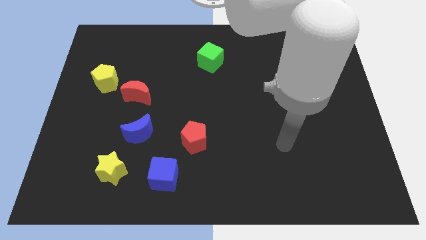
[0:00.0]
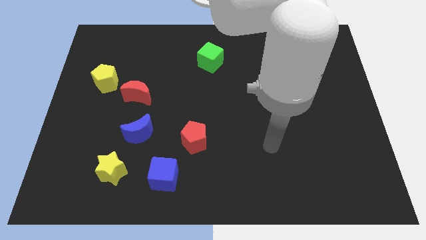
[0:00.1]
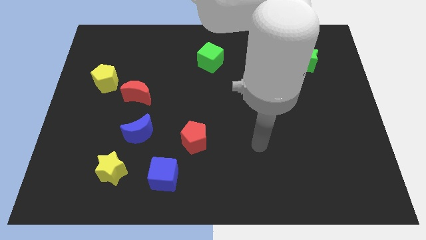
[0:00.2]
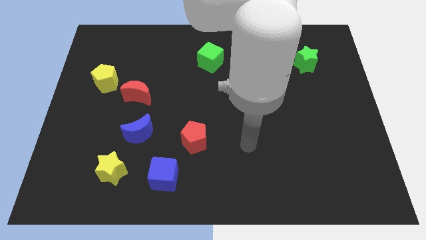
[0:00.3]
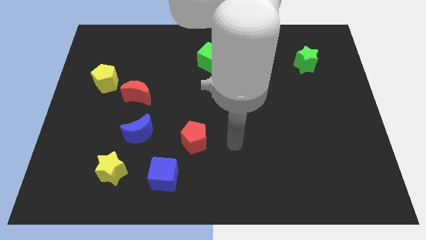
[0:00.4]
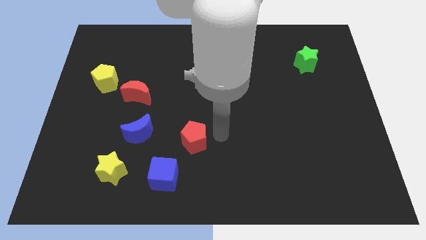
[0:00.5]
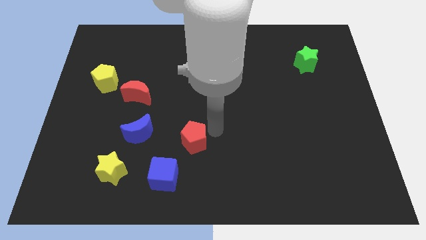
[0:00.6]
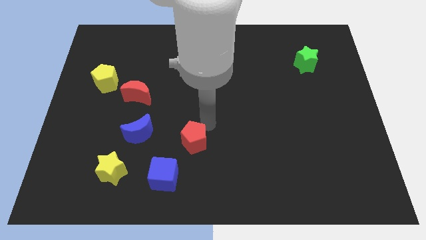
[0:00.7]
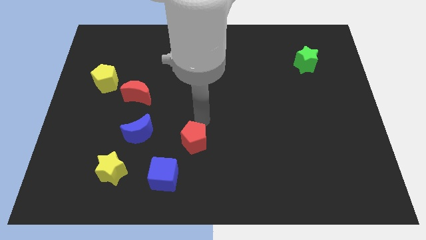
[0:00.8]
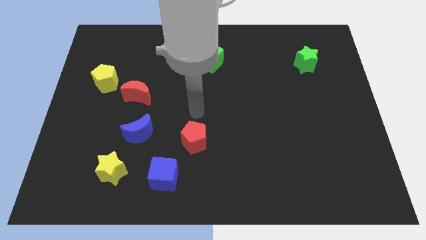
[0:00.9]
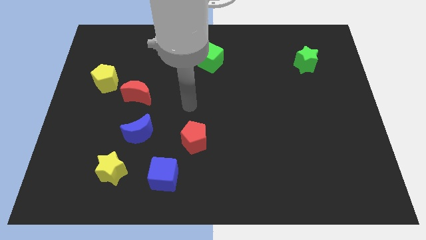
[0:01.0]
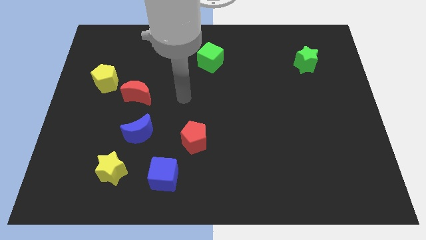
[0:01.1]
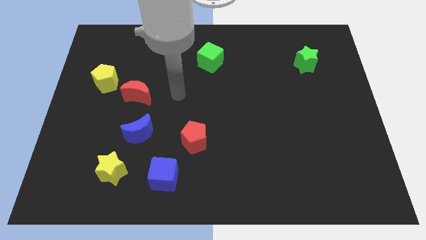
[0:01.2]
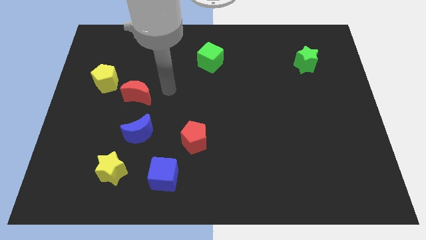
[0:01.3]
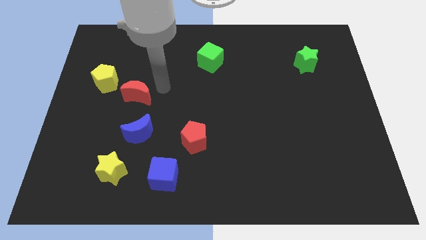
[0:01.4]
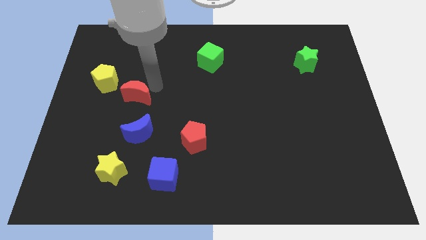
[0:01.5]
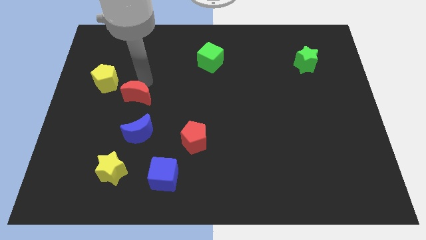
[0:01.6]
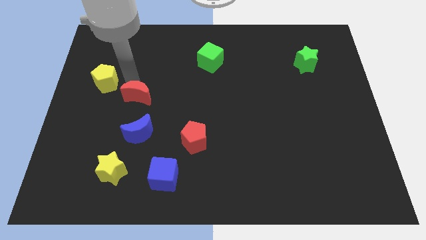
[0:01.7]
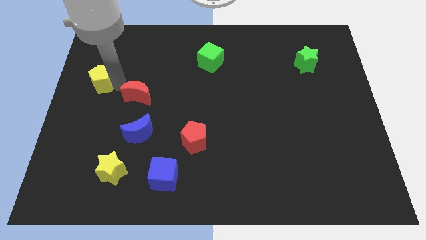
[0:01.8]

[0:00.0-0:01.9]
separate the red moon from the yellow pentagon

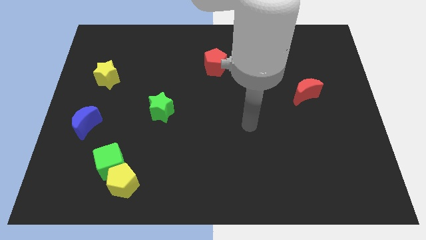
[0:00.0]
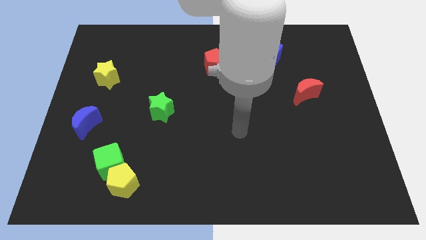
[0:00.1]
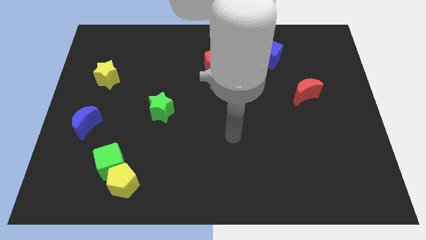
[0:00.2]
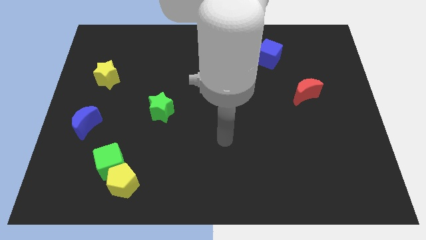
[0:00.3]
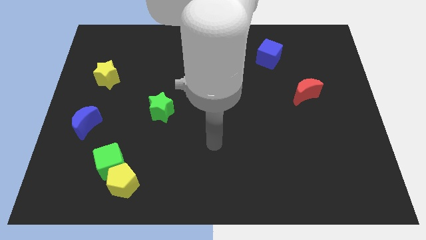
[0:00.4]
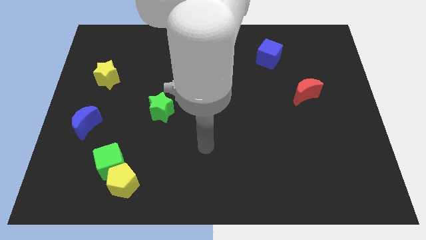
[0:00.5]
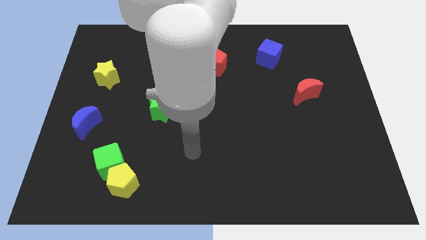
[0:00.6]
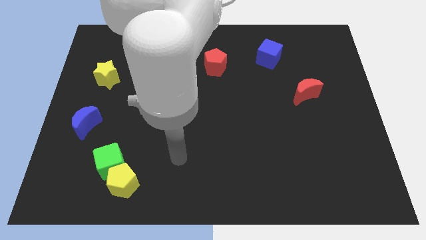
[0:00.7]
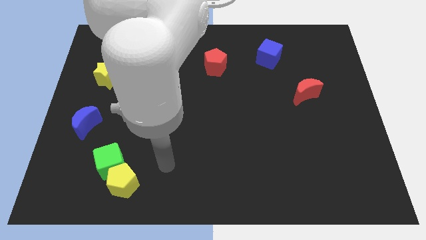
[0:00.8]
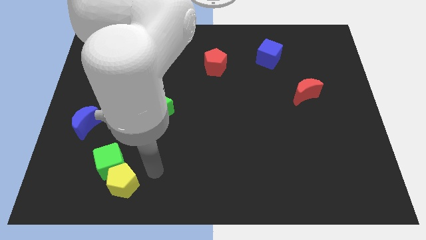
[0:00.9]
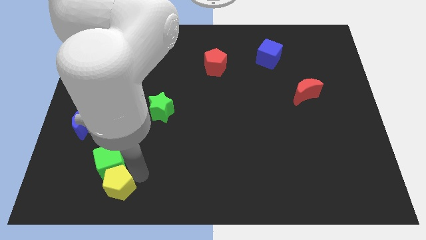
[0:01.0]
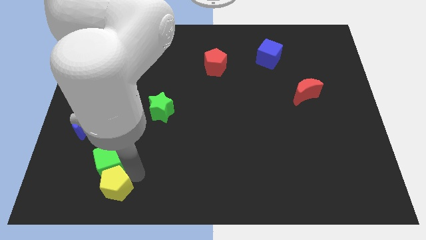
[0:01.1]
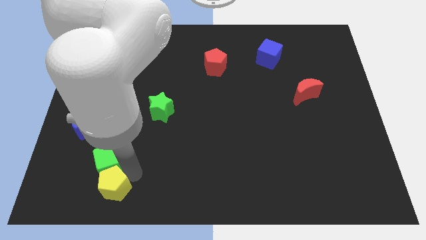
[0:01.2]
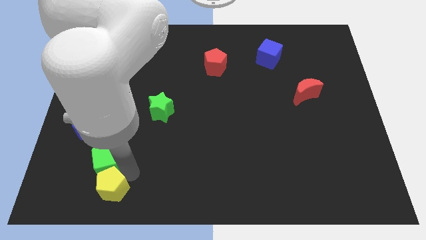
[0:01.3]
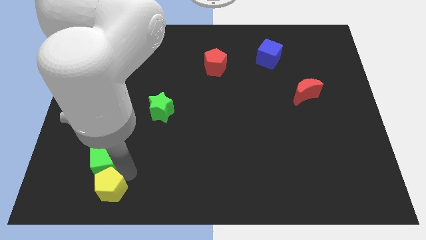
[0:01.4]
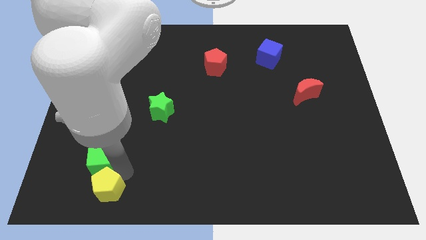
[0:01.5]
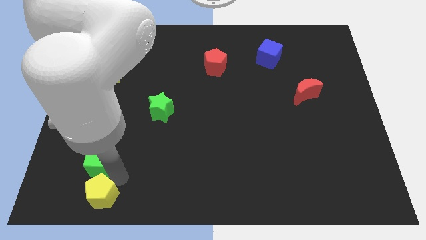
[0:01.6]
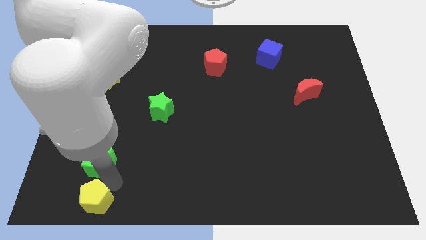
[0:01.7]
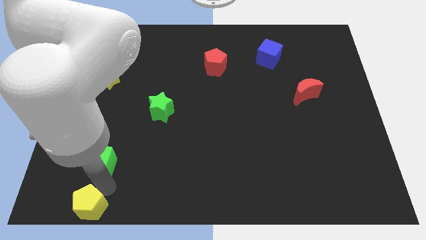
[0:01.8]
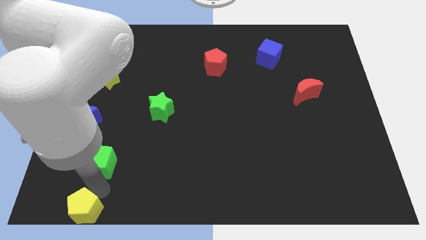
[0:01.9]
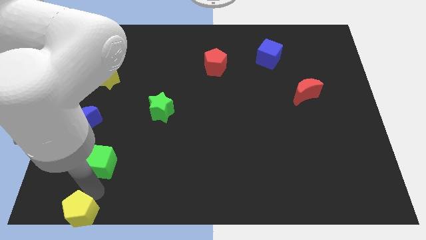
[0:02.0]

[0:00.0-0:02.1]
separate the green cube from the yellow pentagon

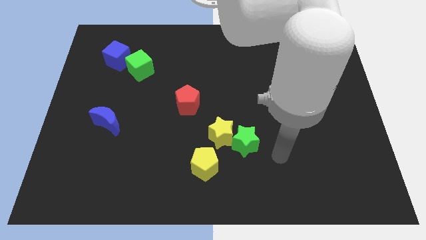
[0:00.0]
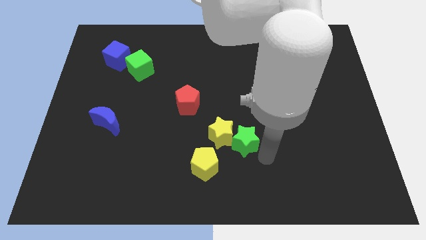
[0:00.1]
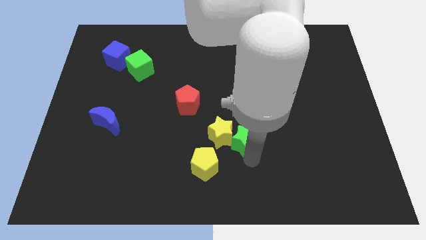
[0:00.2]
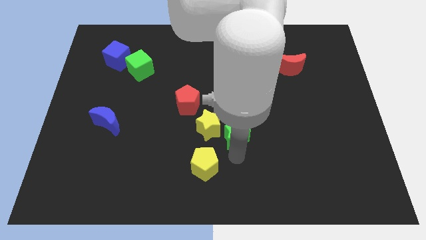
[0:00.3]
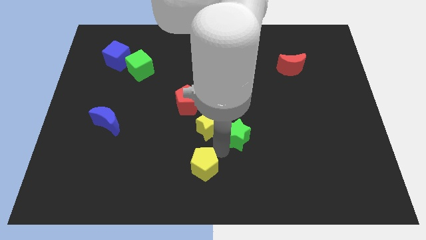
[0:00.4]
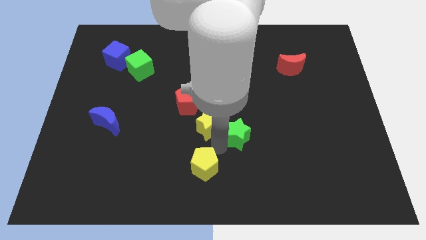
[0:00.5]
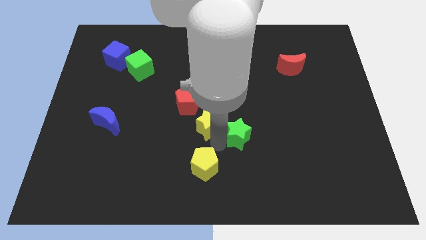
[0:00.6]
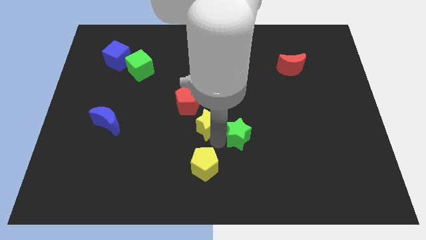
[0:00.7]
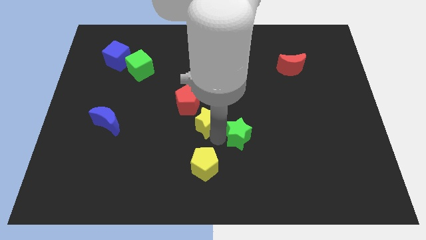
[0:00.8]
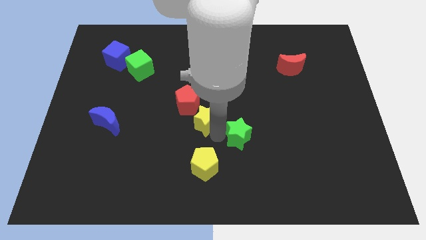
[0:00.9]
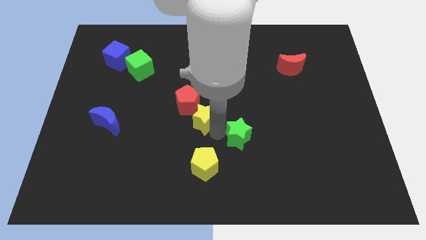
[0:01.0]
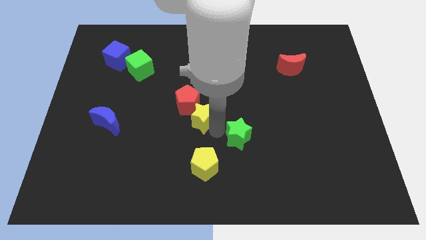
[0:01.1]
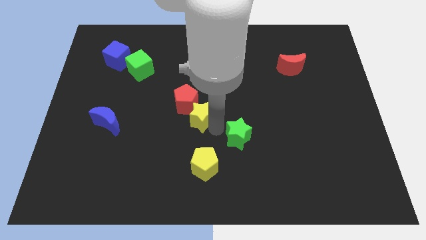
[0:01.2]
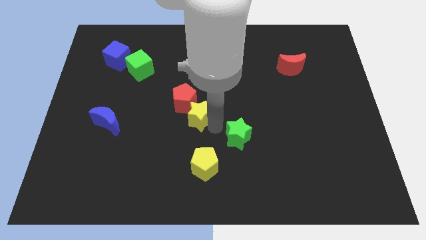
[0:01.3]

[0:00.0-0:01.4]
separate the yellow star from the green star and yellow pentagon

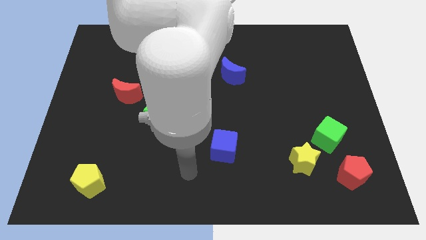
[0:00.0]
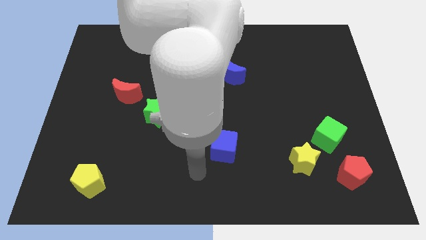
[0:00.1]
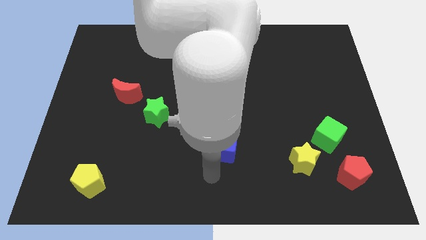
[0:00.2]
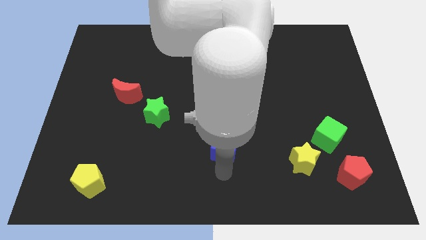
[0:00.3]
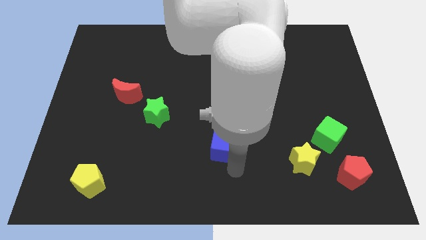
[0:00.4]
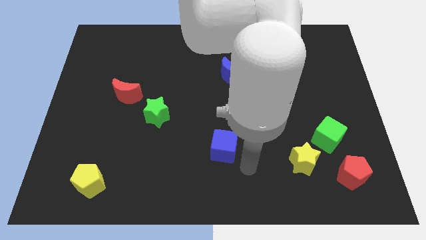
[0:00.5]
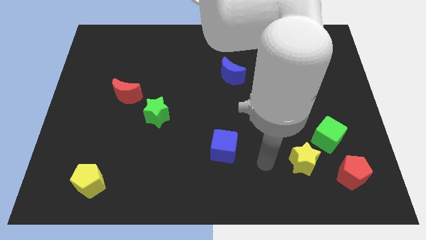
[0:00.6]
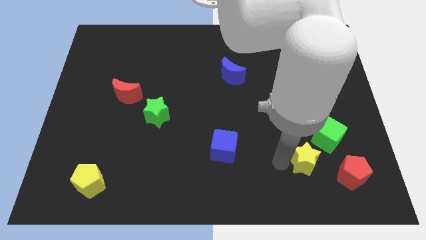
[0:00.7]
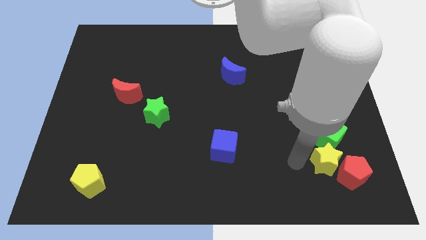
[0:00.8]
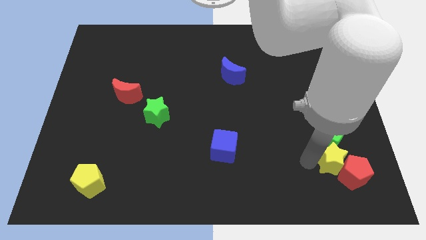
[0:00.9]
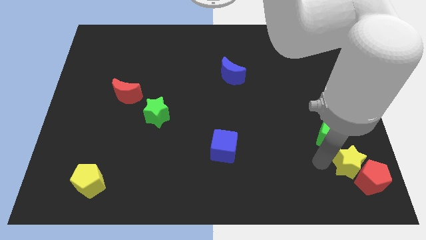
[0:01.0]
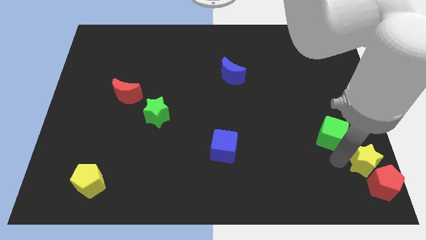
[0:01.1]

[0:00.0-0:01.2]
separate the green cube from the yellow star and red pentagon

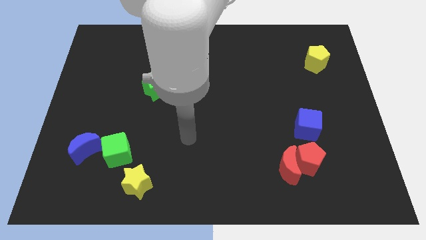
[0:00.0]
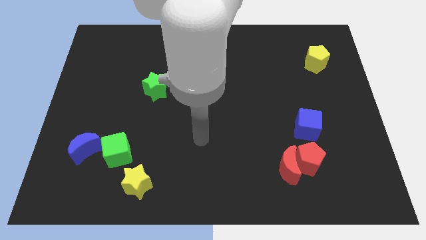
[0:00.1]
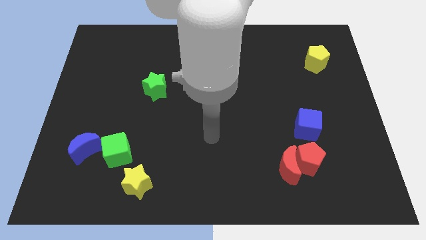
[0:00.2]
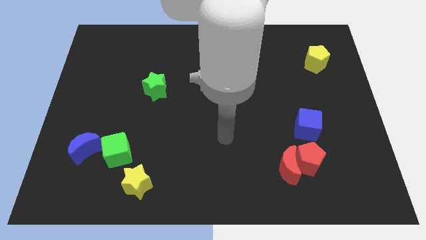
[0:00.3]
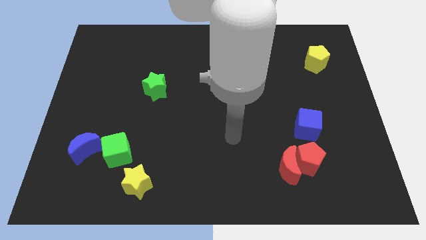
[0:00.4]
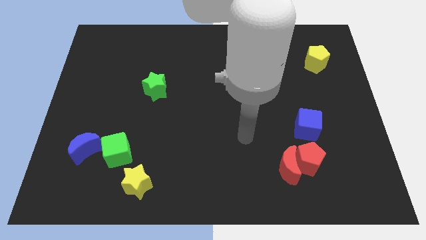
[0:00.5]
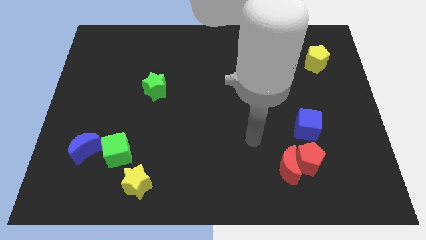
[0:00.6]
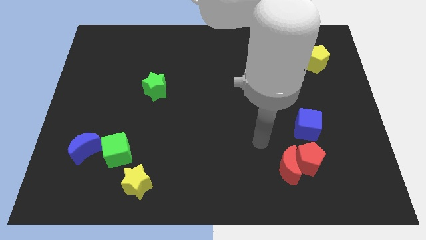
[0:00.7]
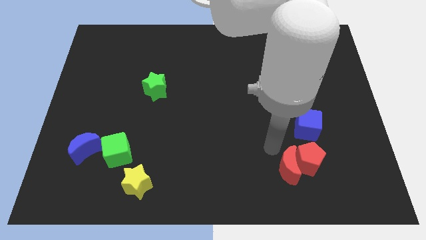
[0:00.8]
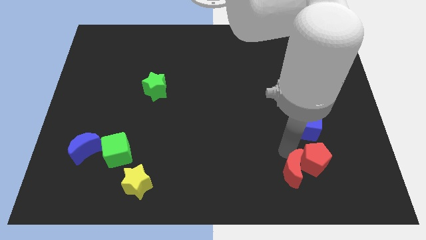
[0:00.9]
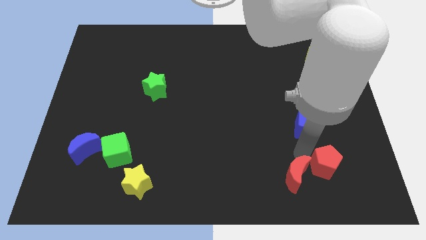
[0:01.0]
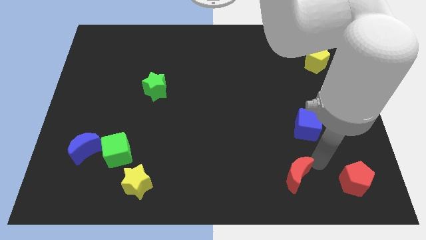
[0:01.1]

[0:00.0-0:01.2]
separate the red moon from the red pentagon

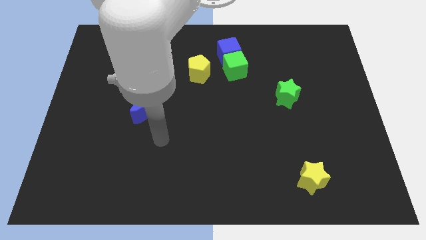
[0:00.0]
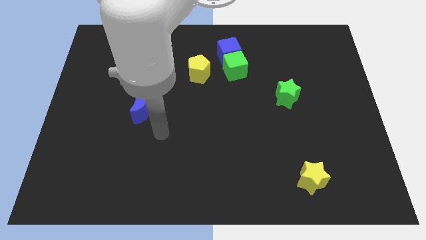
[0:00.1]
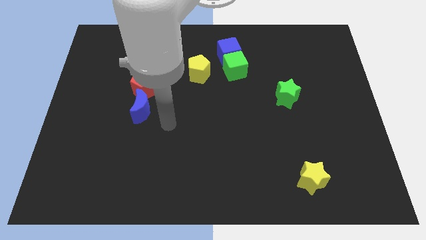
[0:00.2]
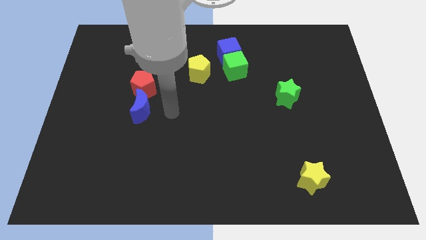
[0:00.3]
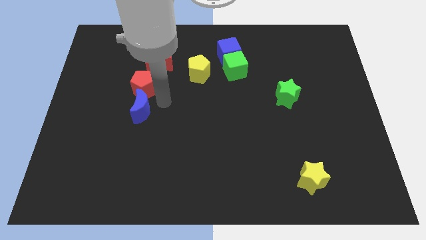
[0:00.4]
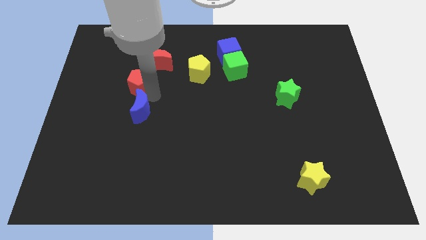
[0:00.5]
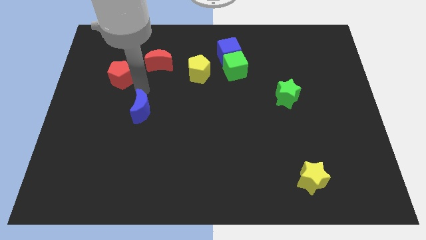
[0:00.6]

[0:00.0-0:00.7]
separate the blue moon from the red pentagon

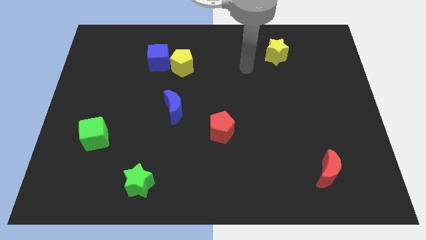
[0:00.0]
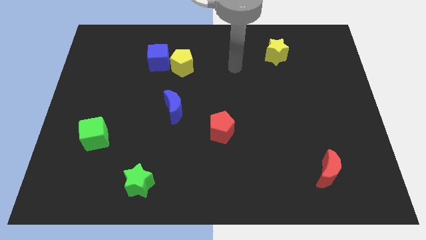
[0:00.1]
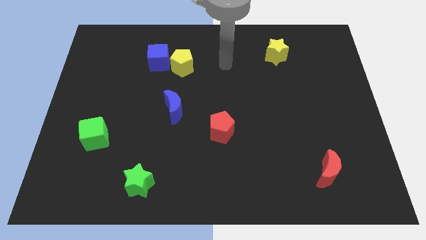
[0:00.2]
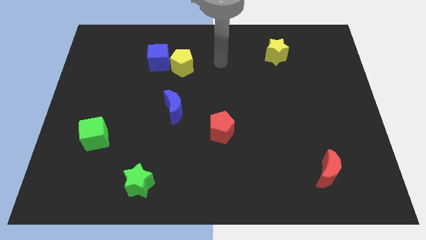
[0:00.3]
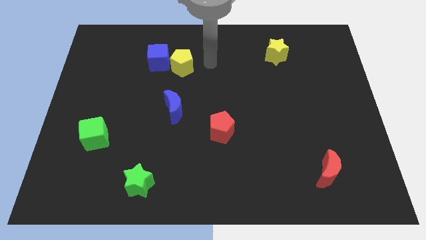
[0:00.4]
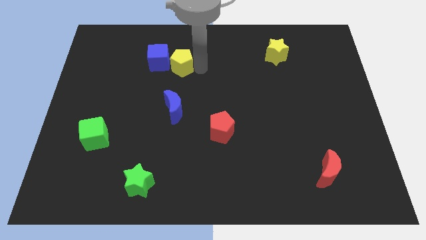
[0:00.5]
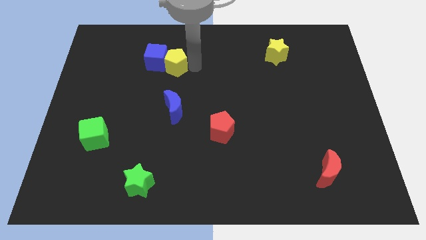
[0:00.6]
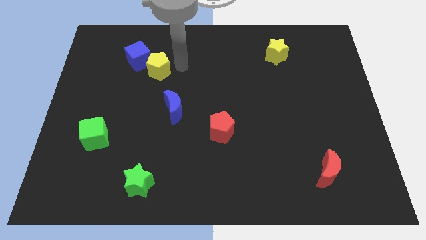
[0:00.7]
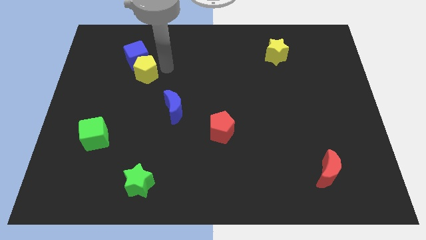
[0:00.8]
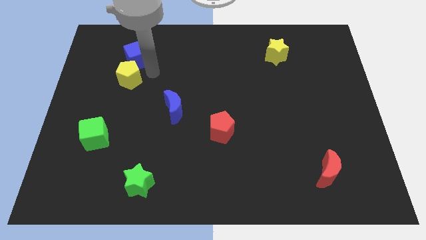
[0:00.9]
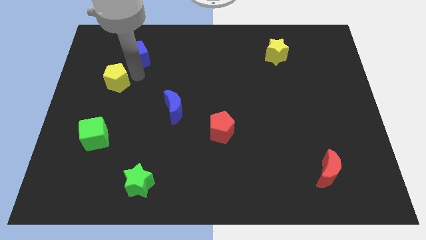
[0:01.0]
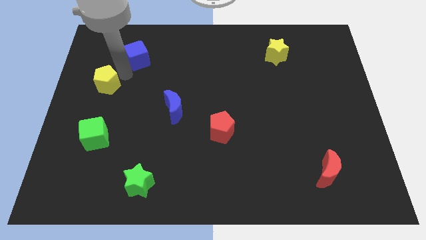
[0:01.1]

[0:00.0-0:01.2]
separate the blue cube from the yellow pentagon
